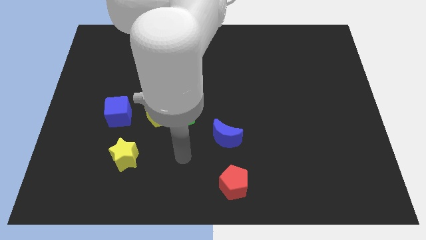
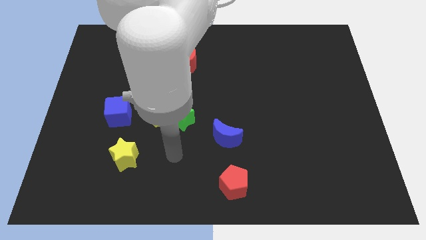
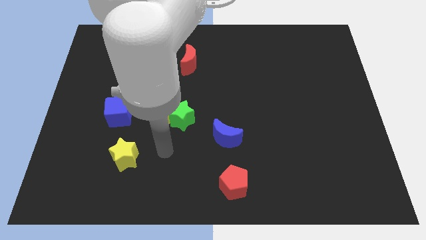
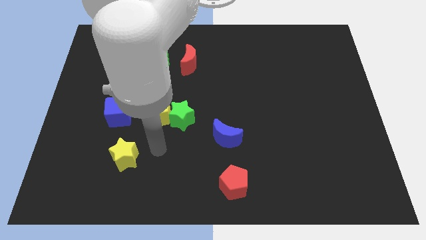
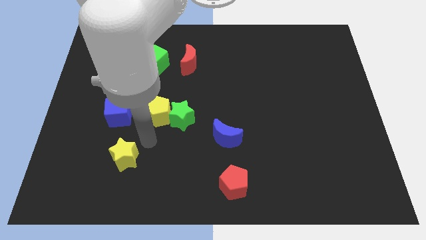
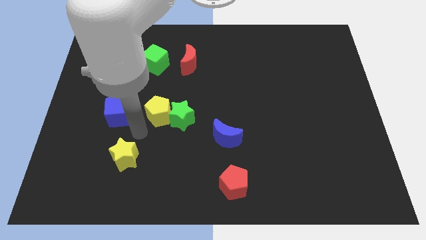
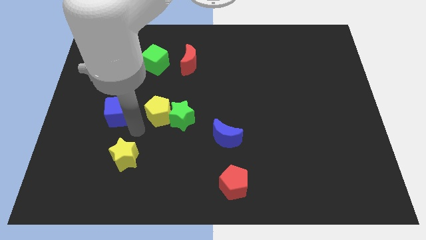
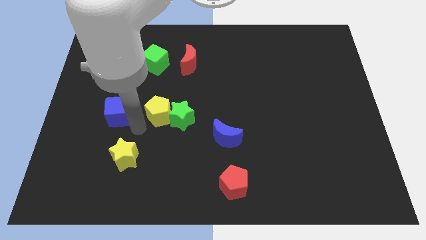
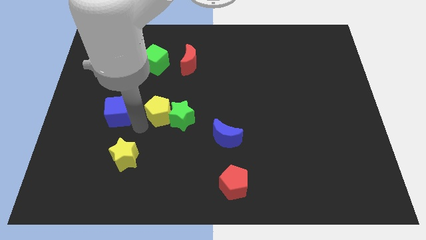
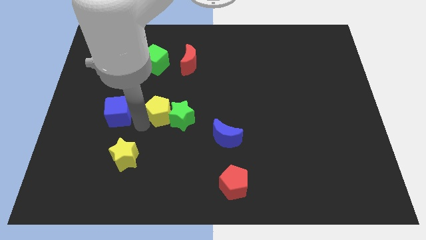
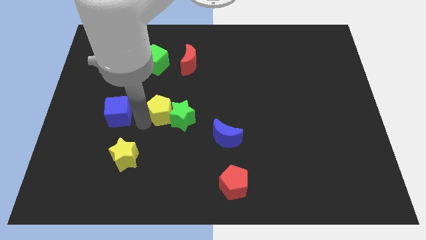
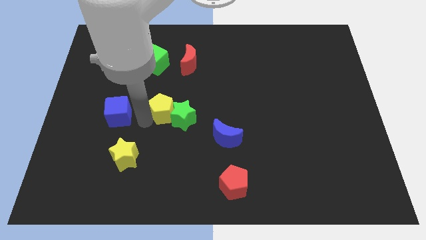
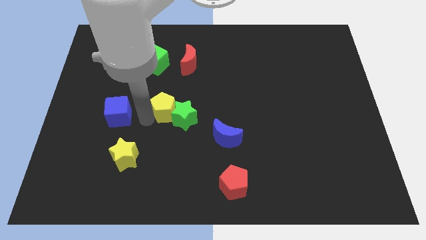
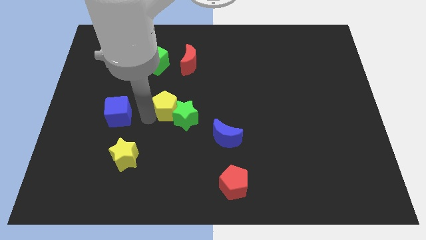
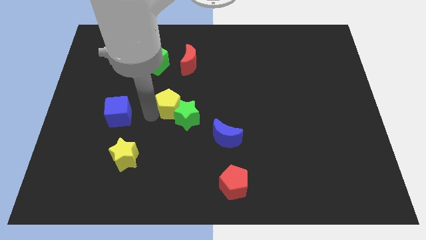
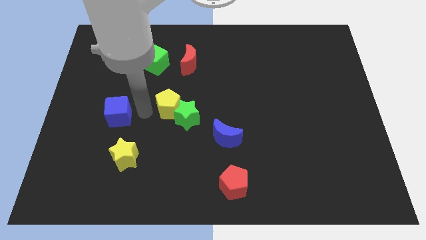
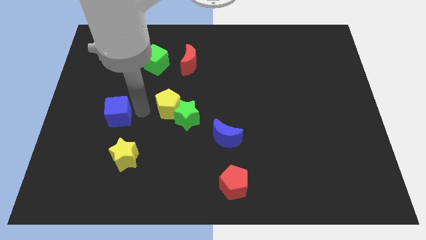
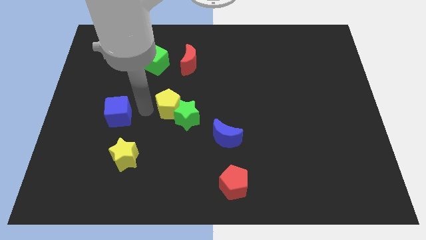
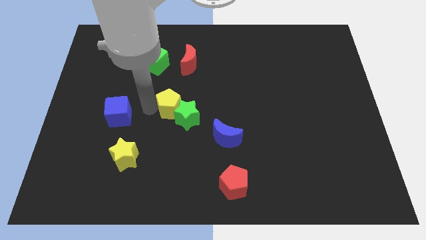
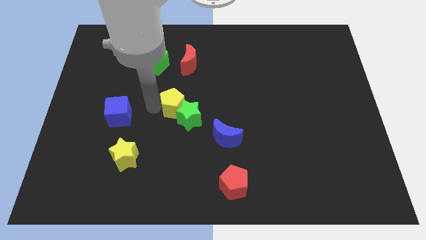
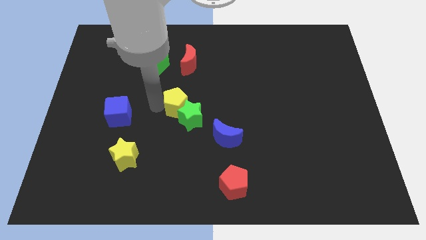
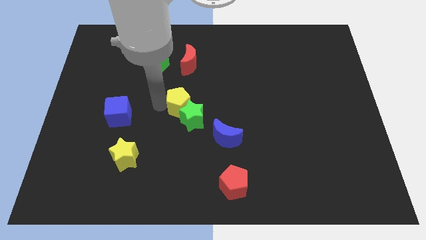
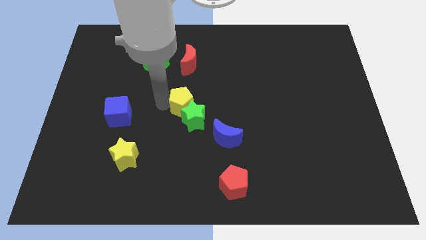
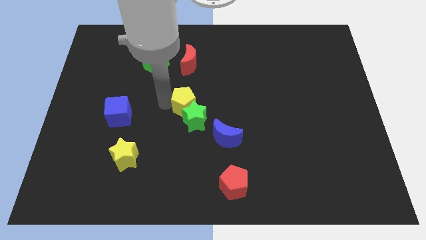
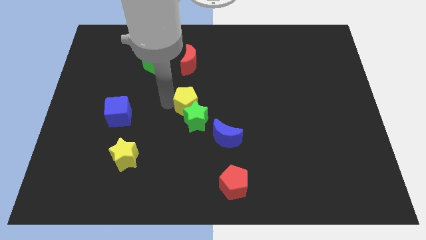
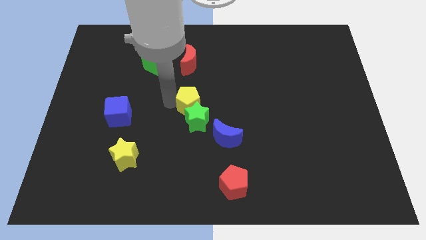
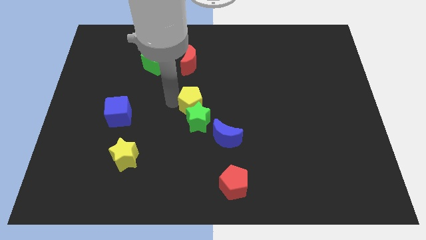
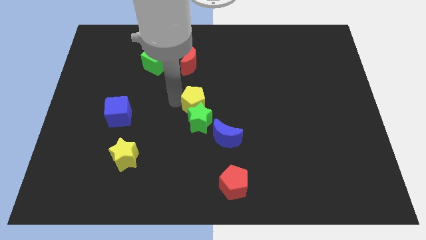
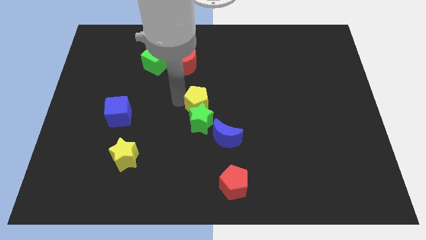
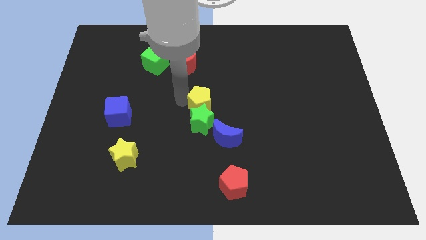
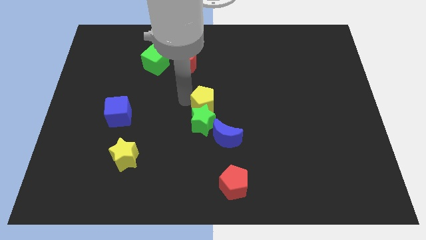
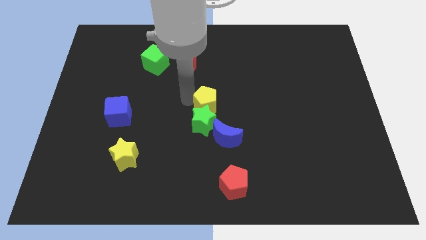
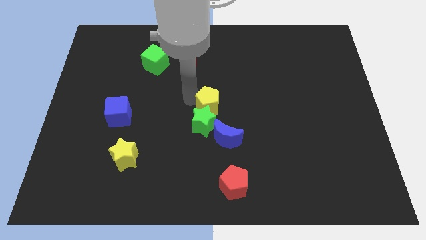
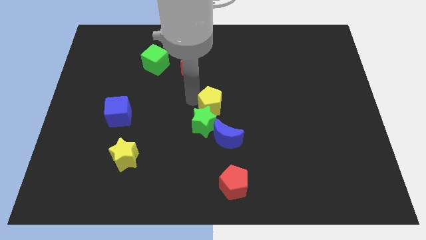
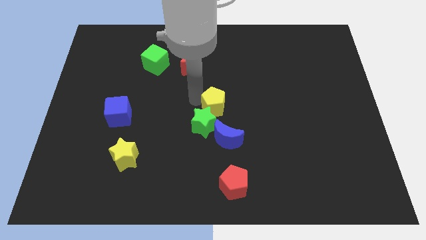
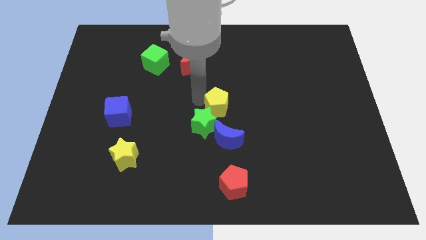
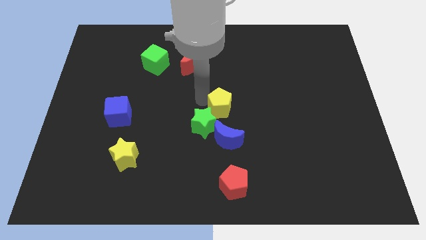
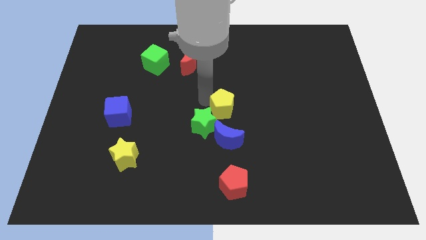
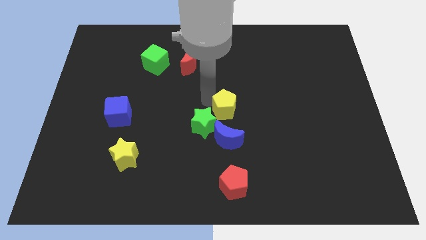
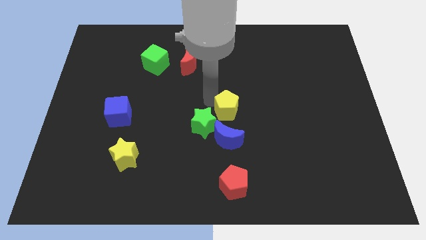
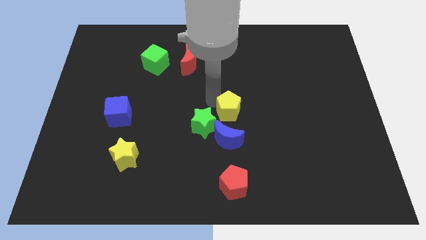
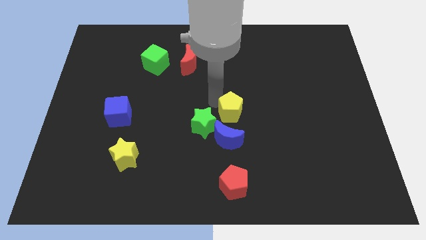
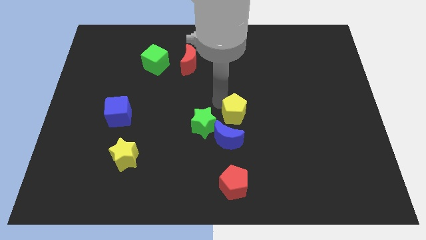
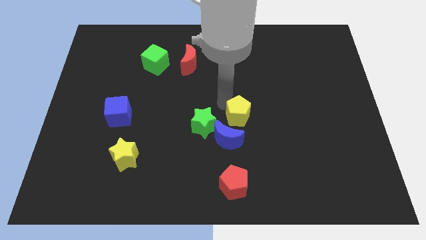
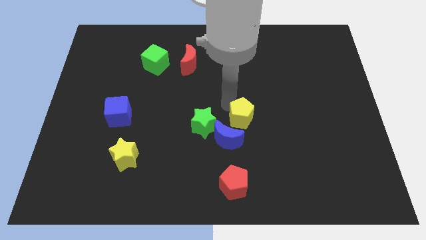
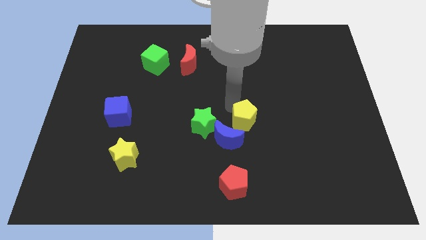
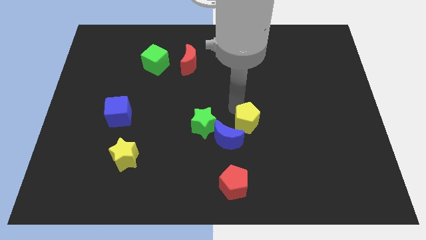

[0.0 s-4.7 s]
move the yellow pentagon right of the blue moon

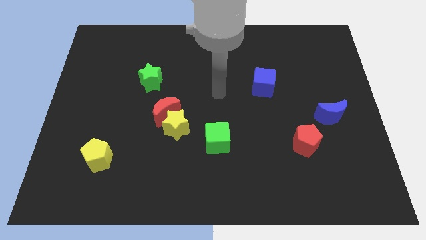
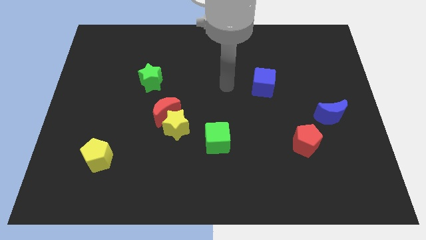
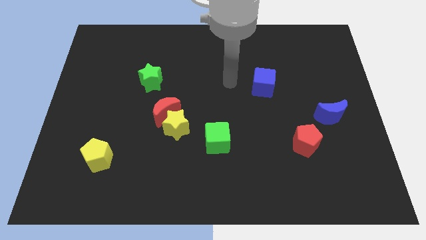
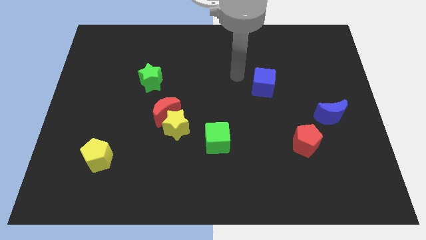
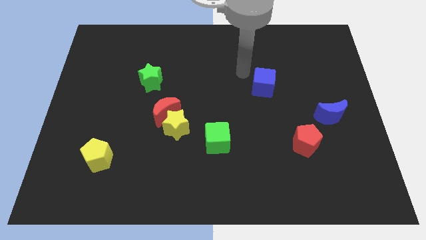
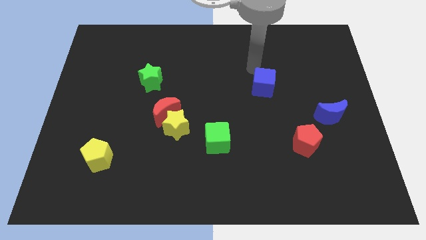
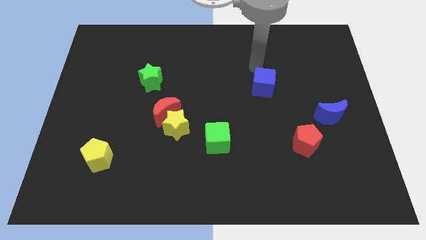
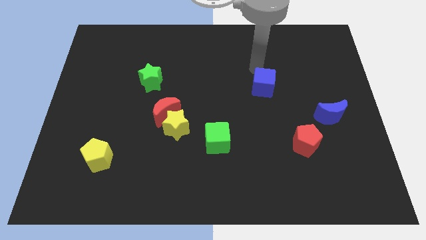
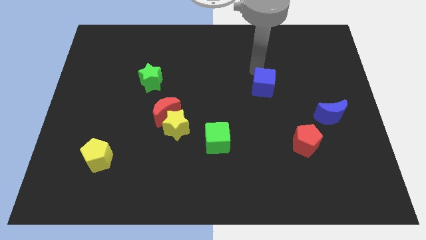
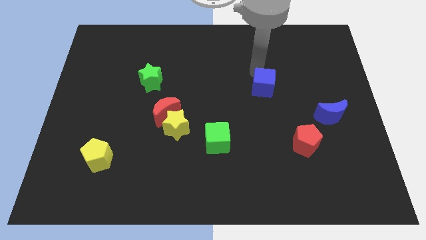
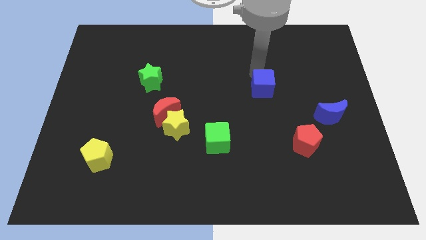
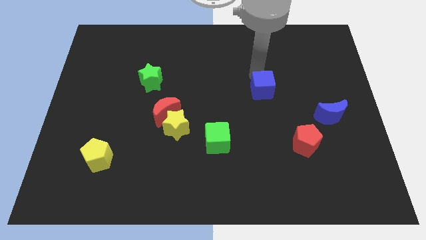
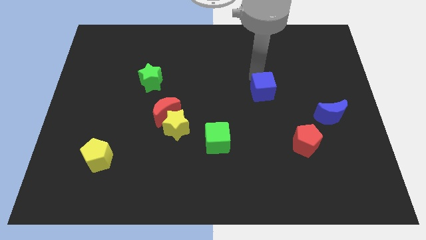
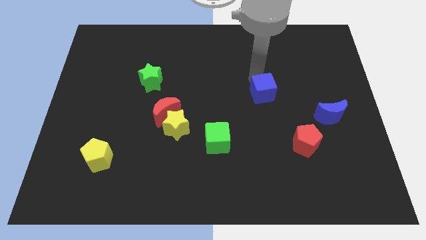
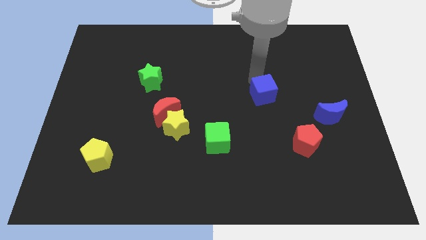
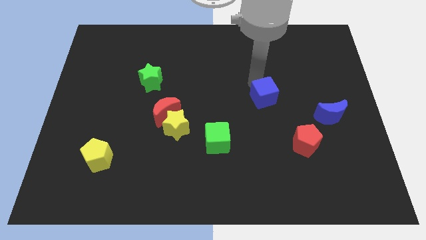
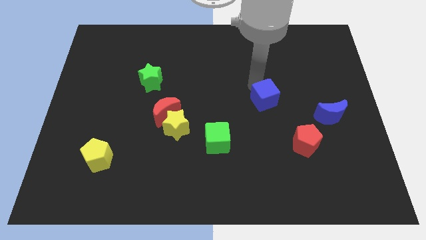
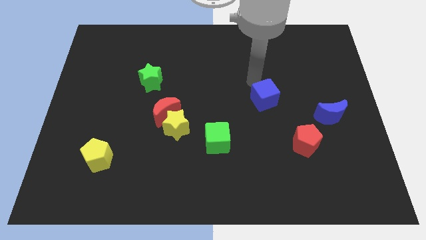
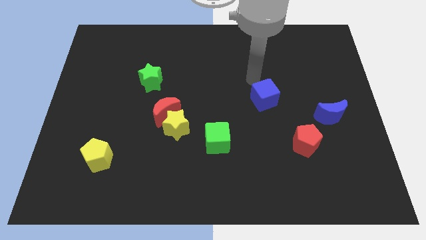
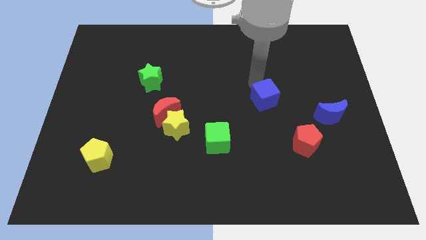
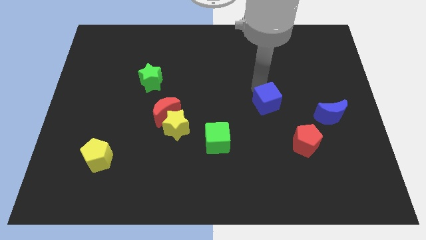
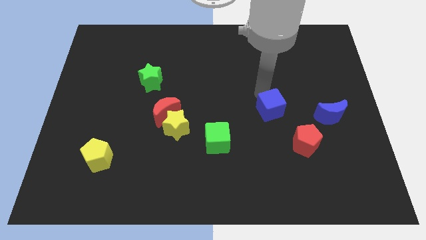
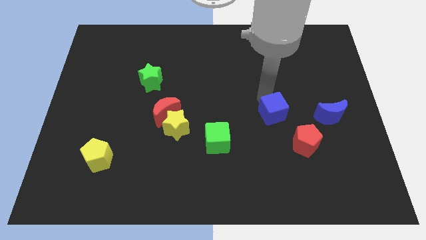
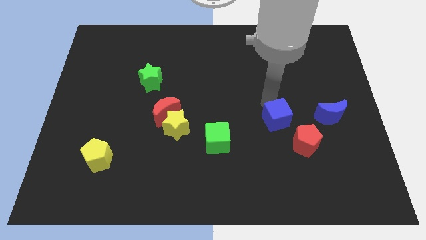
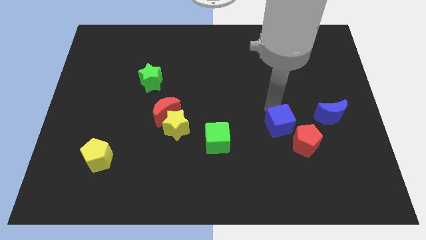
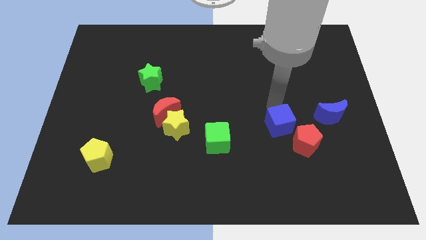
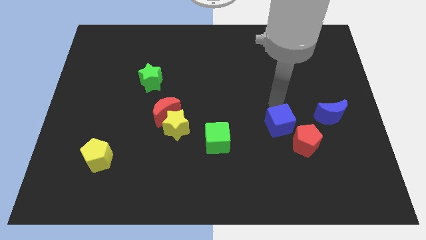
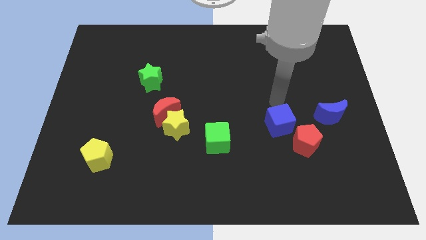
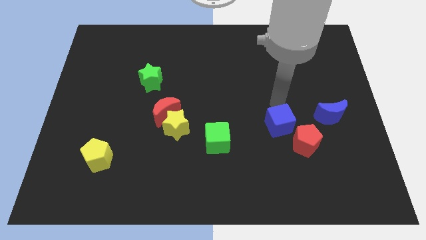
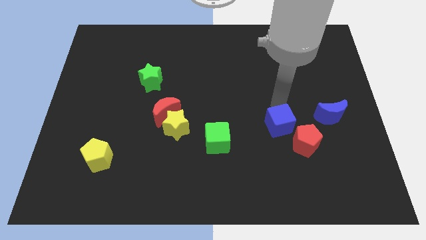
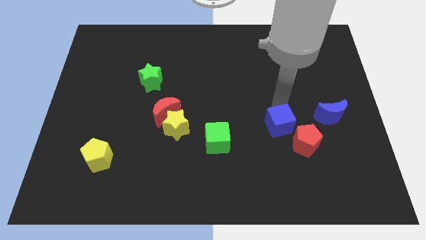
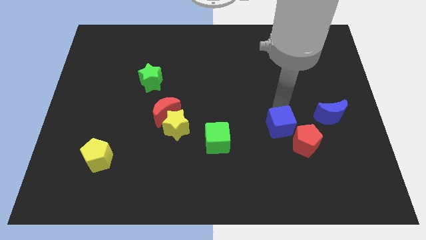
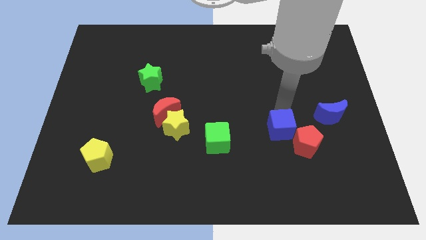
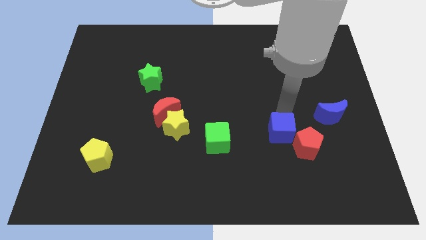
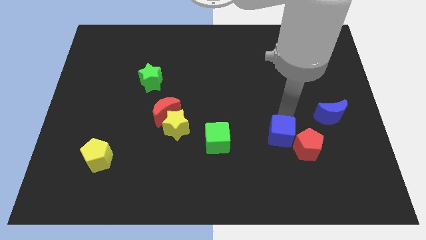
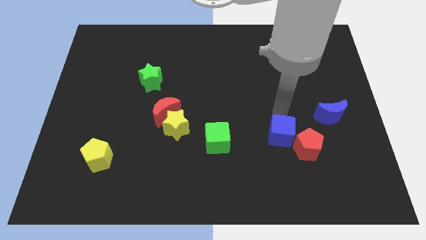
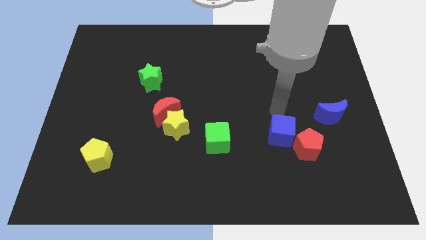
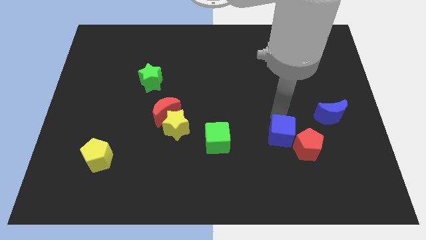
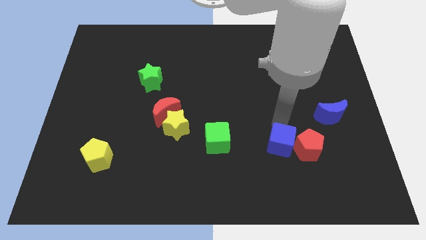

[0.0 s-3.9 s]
put the blue cube to the bottom left of the red pentagon
